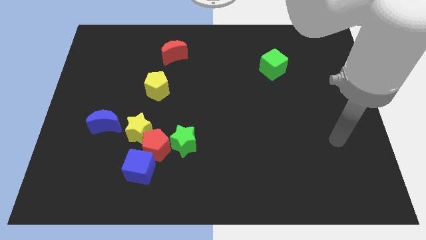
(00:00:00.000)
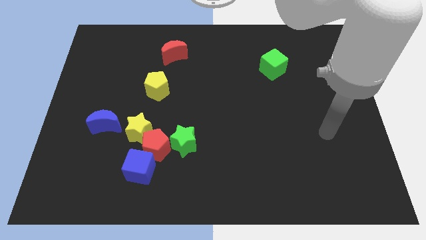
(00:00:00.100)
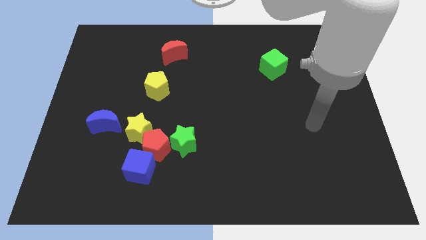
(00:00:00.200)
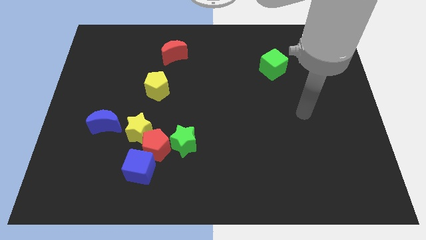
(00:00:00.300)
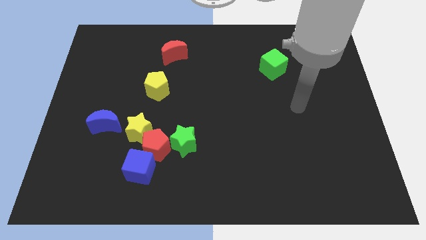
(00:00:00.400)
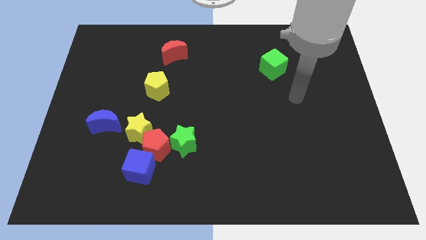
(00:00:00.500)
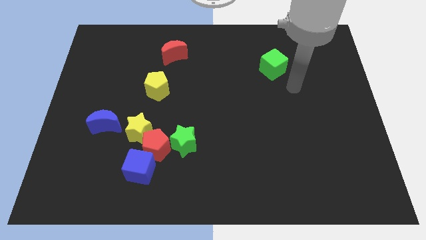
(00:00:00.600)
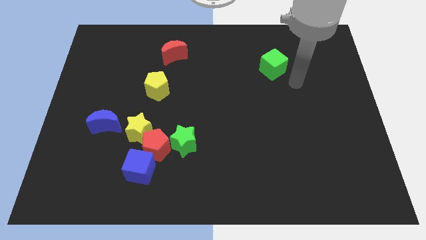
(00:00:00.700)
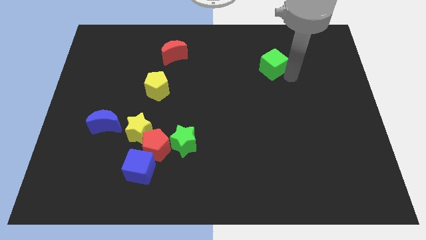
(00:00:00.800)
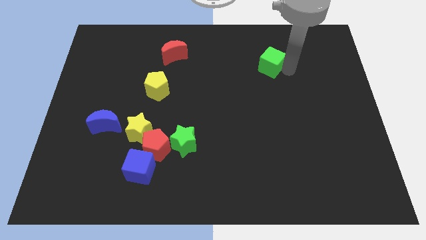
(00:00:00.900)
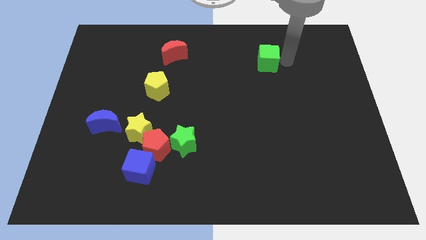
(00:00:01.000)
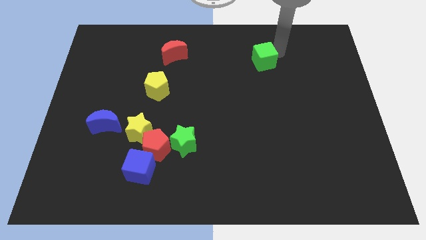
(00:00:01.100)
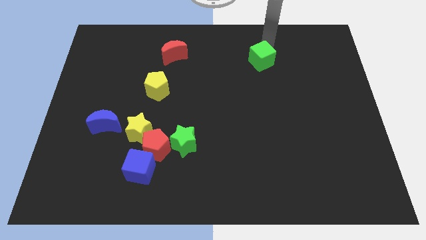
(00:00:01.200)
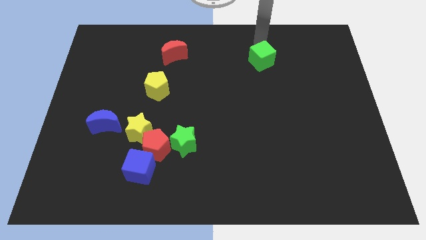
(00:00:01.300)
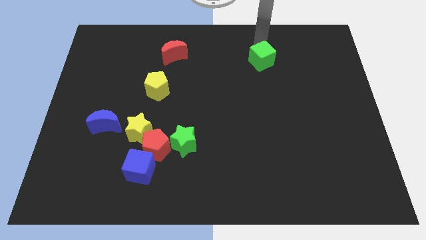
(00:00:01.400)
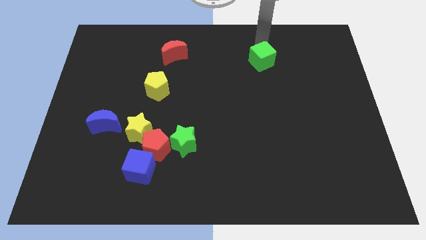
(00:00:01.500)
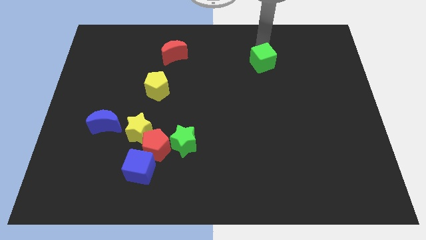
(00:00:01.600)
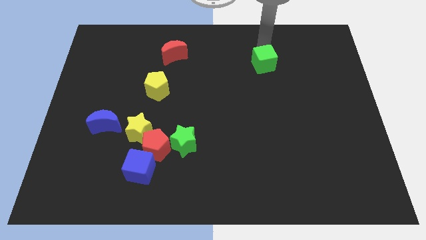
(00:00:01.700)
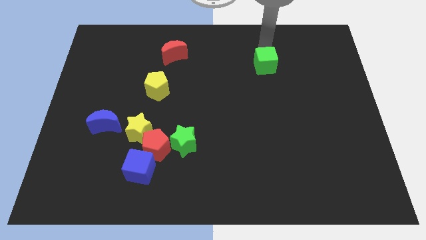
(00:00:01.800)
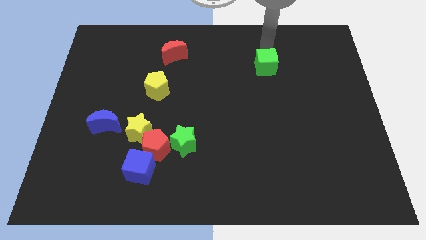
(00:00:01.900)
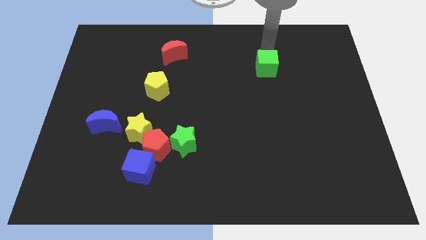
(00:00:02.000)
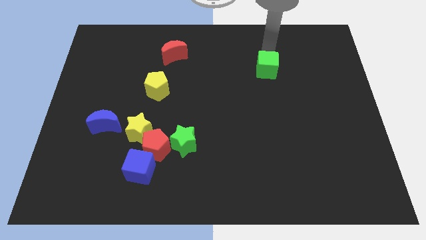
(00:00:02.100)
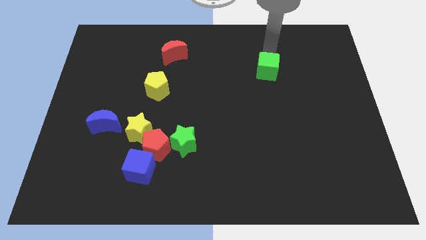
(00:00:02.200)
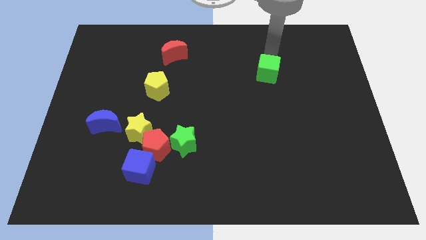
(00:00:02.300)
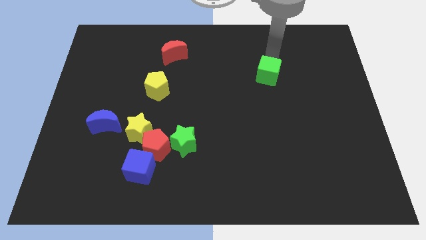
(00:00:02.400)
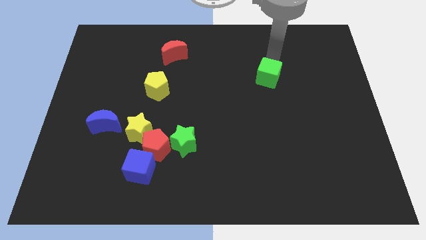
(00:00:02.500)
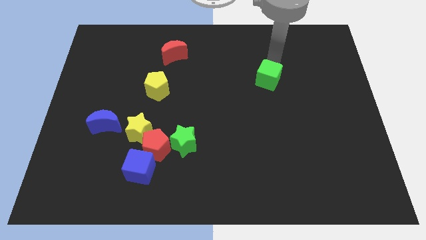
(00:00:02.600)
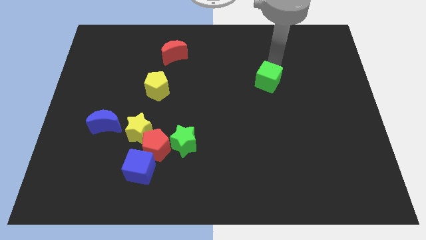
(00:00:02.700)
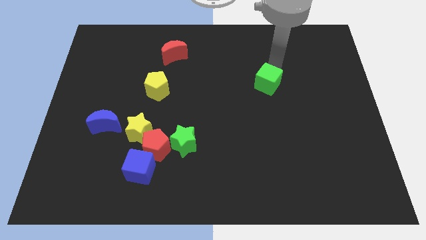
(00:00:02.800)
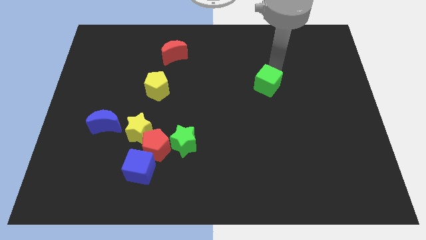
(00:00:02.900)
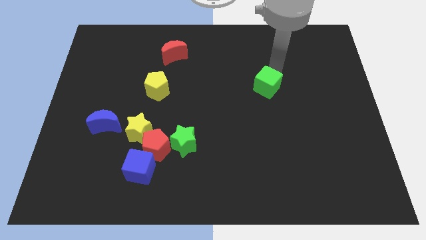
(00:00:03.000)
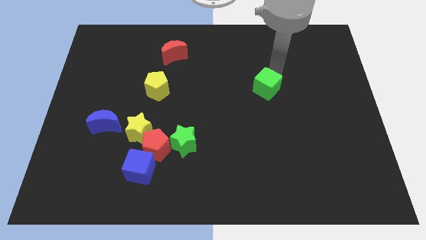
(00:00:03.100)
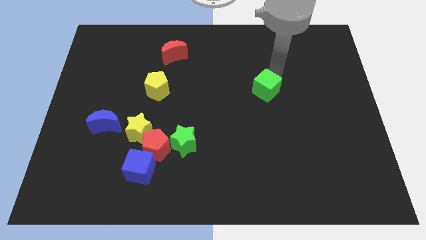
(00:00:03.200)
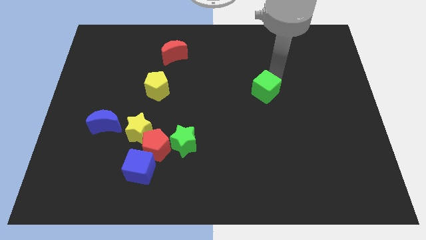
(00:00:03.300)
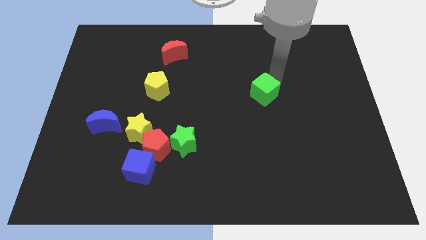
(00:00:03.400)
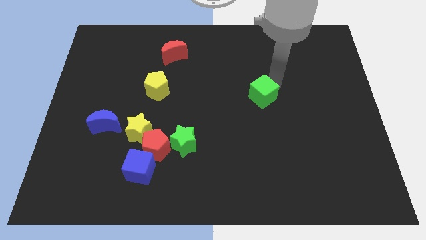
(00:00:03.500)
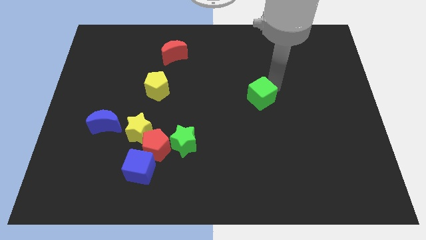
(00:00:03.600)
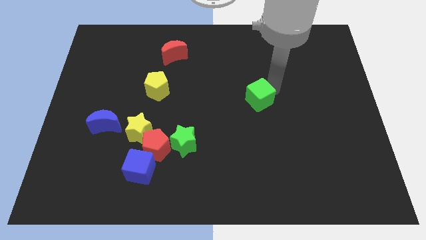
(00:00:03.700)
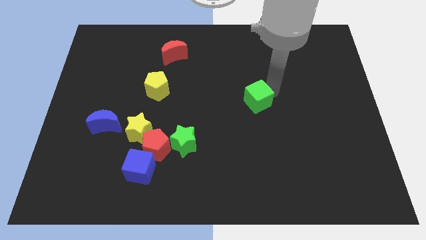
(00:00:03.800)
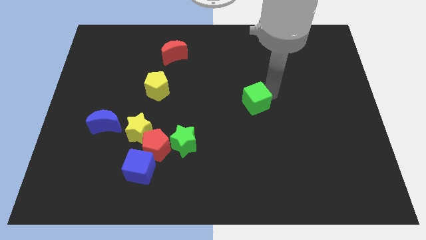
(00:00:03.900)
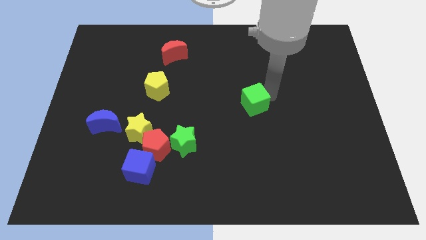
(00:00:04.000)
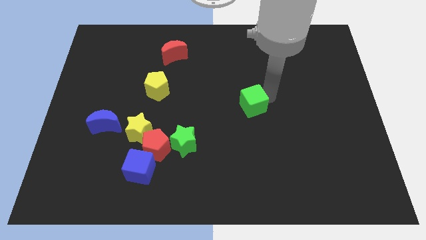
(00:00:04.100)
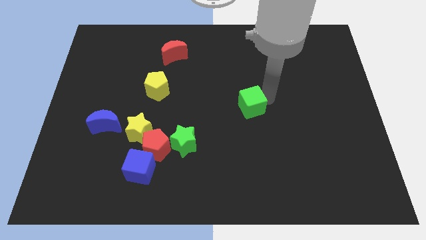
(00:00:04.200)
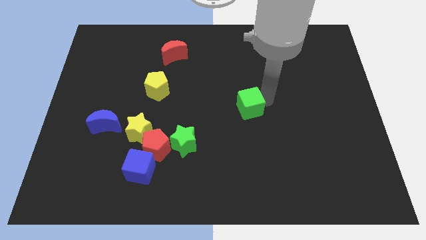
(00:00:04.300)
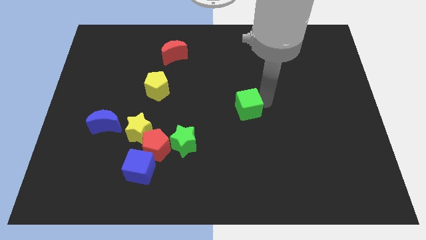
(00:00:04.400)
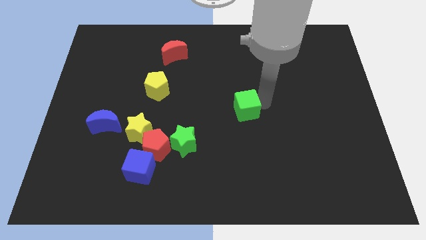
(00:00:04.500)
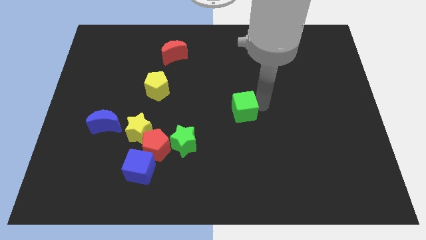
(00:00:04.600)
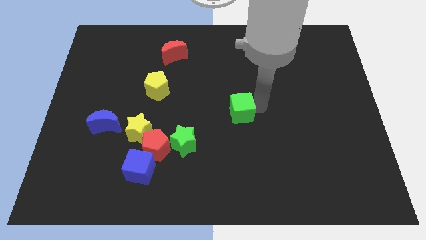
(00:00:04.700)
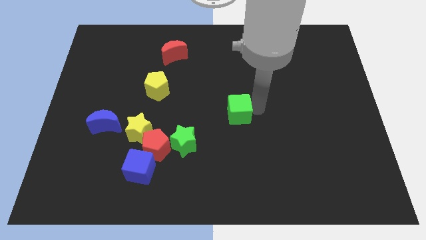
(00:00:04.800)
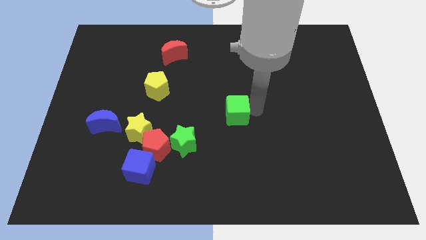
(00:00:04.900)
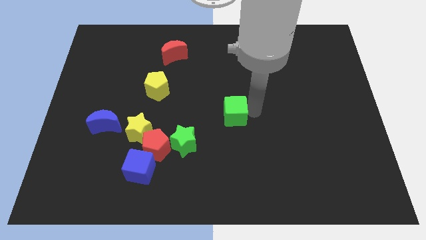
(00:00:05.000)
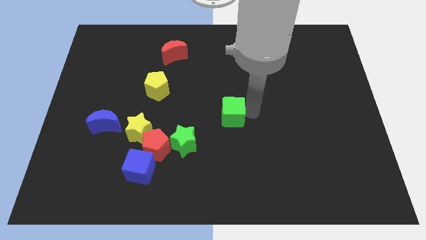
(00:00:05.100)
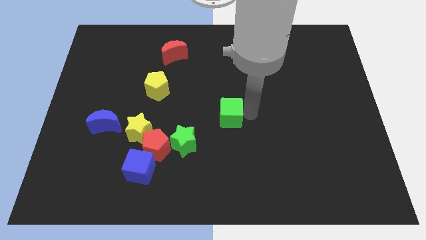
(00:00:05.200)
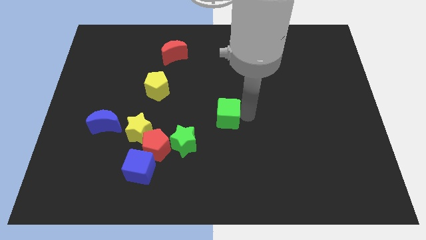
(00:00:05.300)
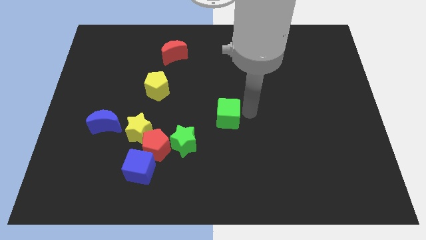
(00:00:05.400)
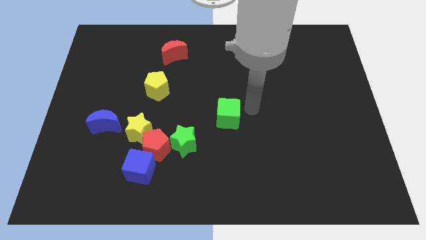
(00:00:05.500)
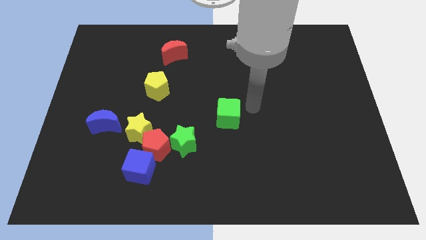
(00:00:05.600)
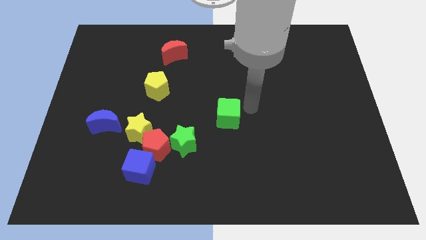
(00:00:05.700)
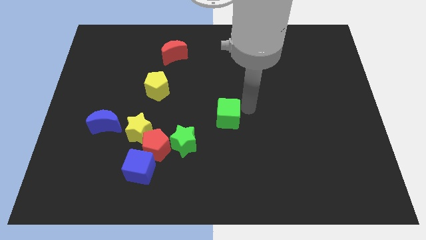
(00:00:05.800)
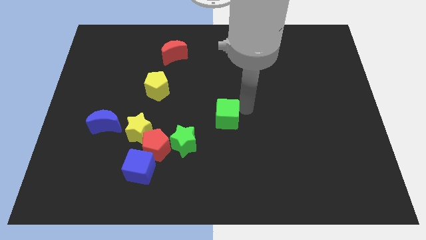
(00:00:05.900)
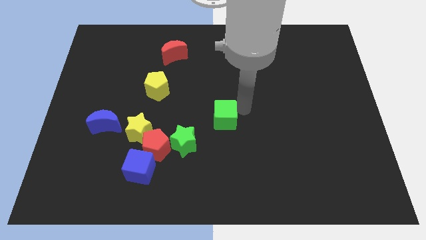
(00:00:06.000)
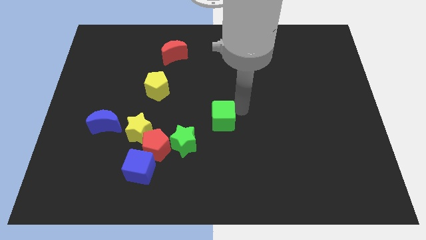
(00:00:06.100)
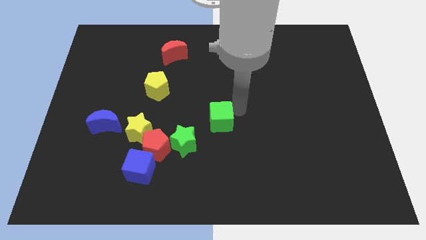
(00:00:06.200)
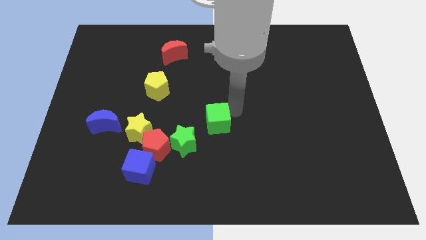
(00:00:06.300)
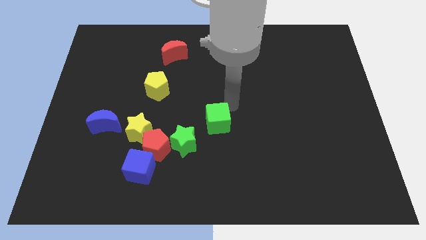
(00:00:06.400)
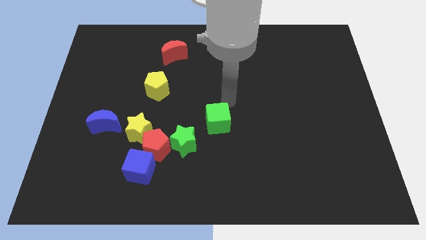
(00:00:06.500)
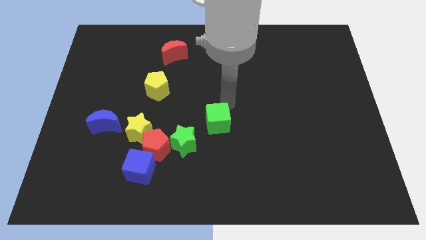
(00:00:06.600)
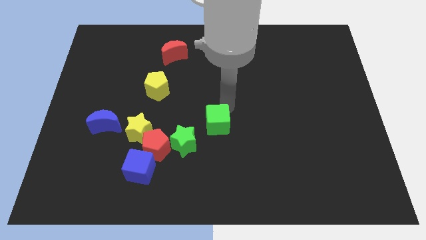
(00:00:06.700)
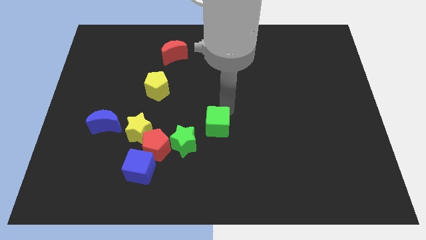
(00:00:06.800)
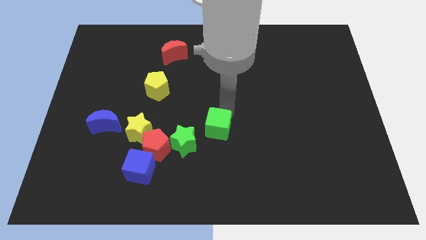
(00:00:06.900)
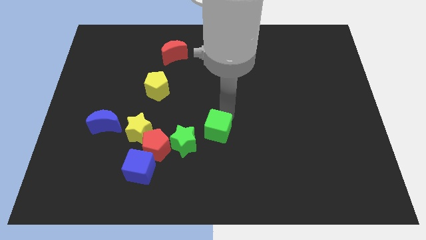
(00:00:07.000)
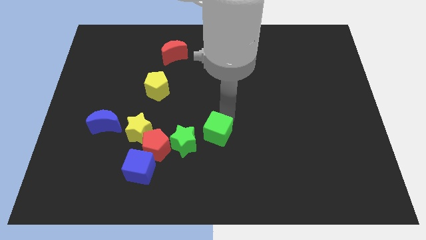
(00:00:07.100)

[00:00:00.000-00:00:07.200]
put the green cube to the right side of the red pentagon
